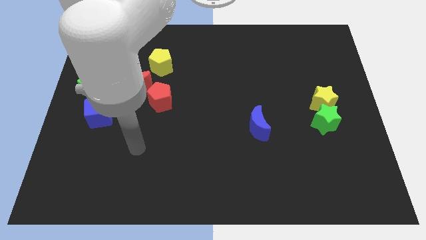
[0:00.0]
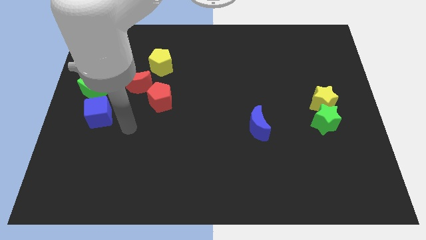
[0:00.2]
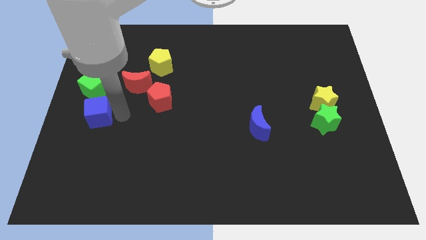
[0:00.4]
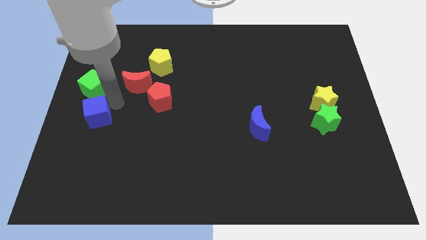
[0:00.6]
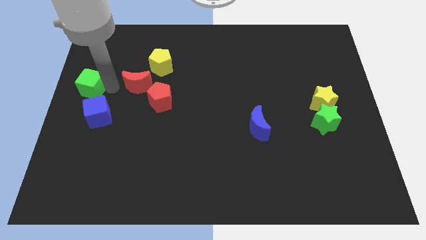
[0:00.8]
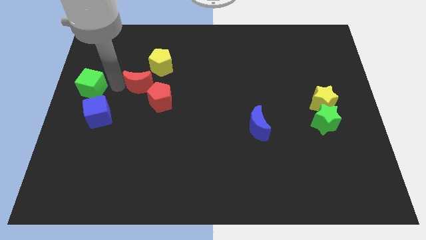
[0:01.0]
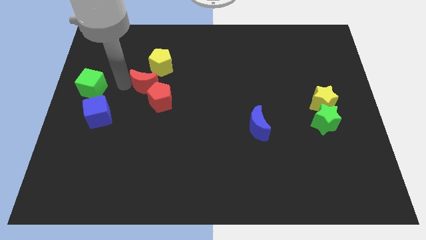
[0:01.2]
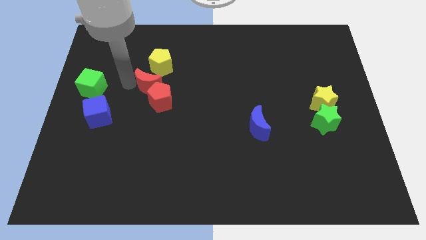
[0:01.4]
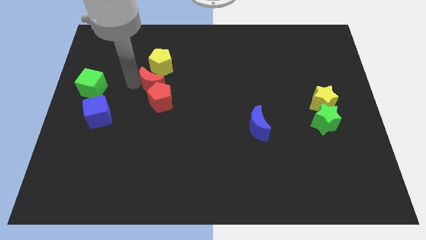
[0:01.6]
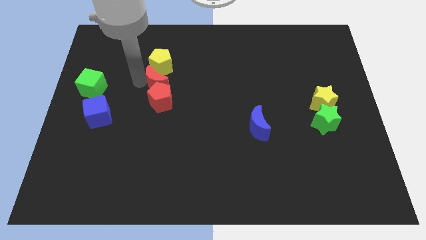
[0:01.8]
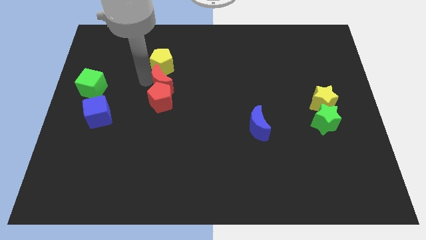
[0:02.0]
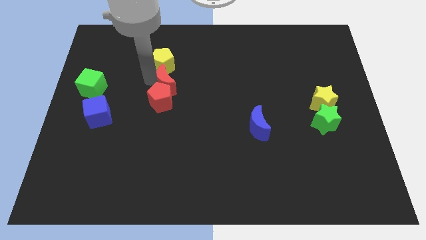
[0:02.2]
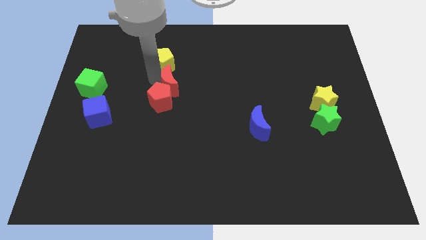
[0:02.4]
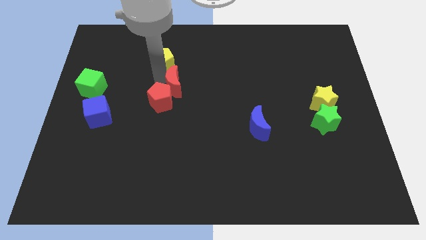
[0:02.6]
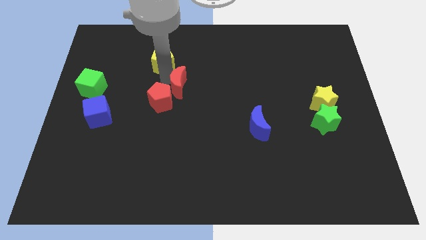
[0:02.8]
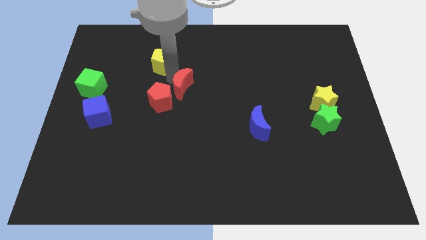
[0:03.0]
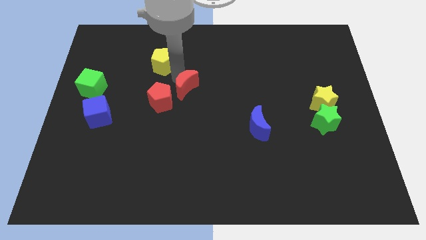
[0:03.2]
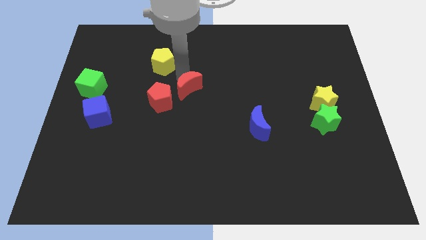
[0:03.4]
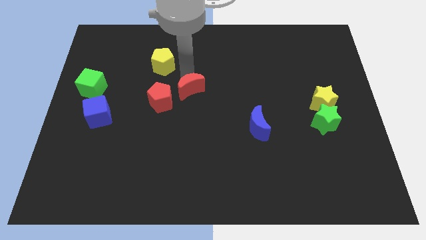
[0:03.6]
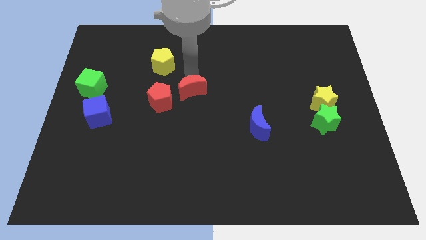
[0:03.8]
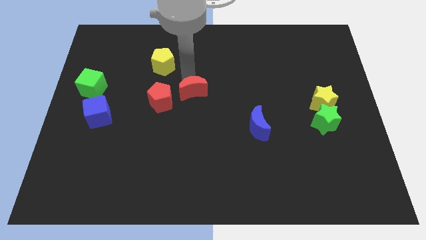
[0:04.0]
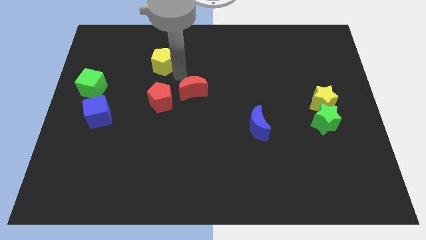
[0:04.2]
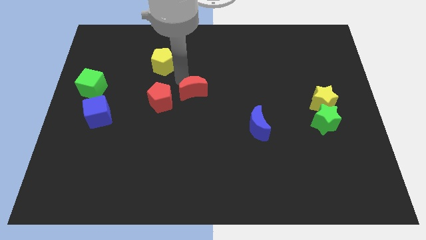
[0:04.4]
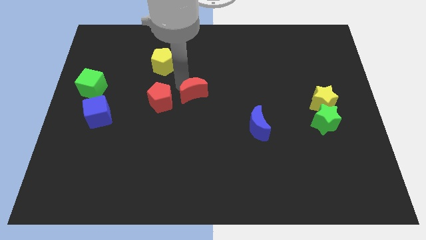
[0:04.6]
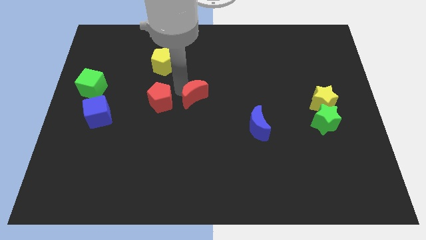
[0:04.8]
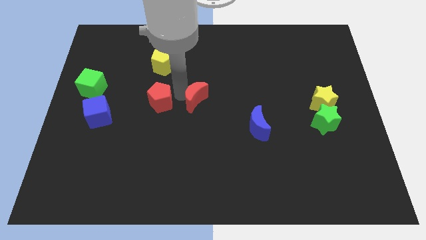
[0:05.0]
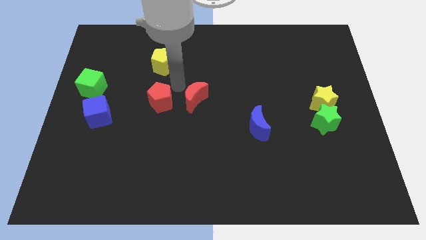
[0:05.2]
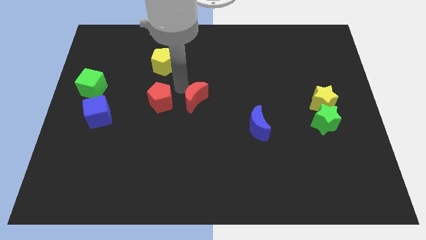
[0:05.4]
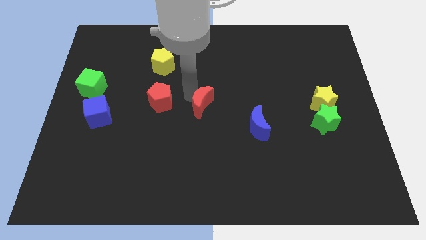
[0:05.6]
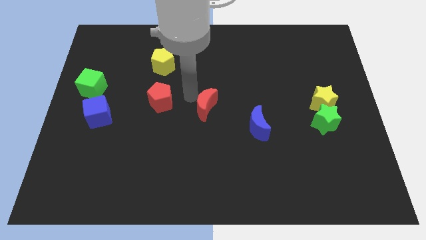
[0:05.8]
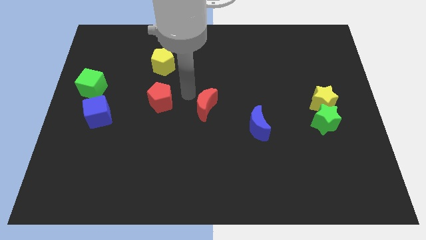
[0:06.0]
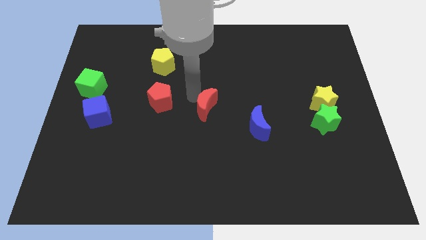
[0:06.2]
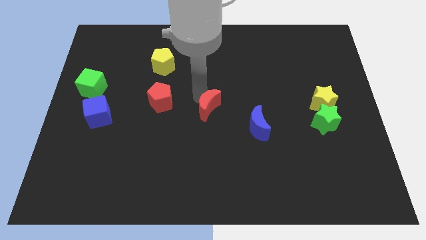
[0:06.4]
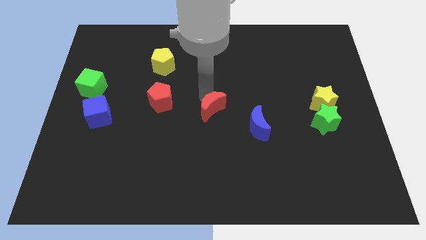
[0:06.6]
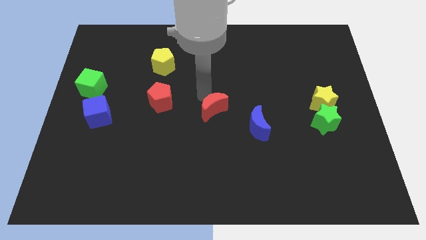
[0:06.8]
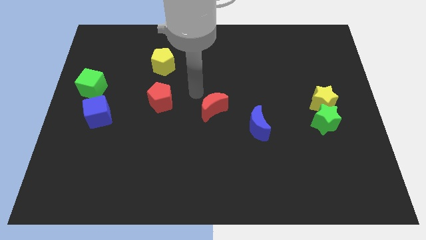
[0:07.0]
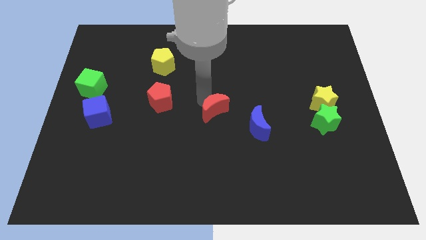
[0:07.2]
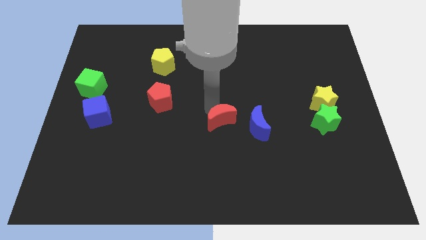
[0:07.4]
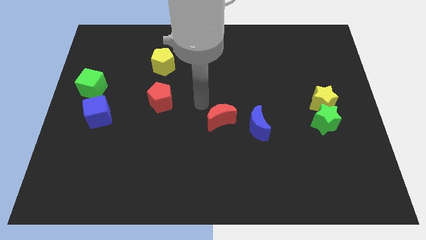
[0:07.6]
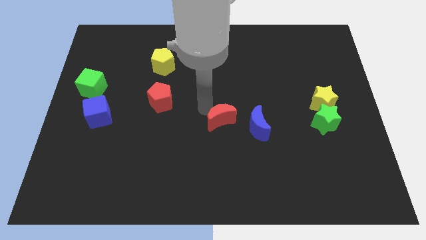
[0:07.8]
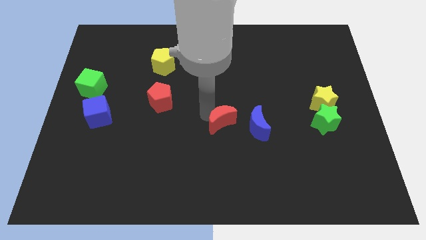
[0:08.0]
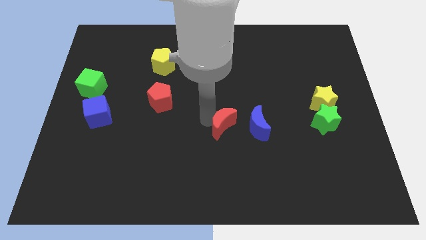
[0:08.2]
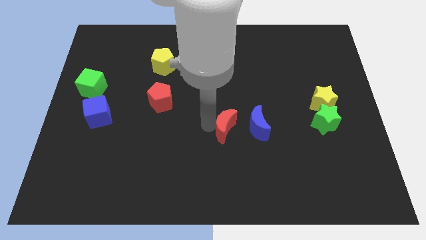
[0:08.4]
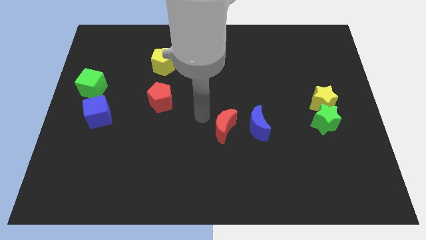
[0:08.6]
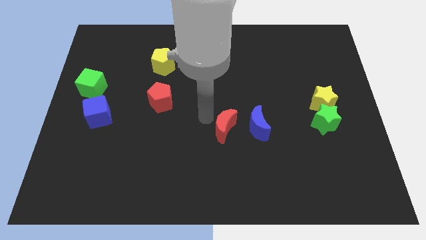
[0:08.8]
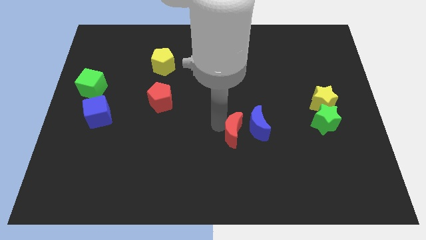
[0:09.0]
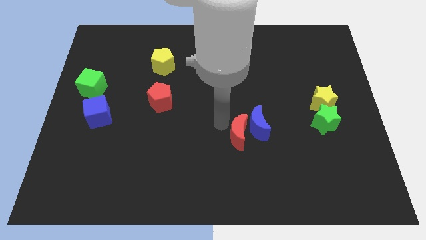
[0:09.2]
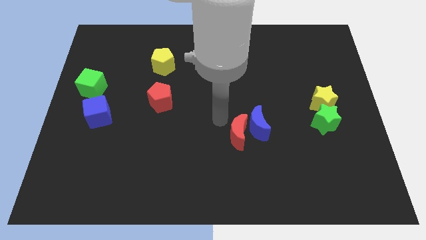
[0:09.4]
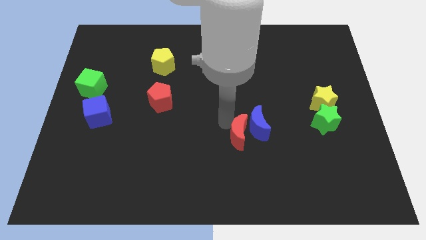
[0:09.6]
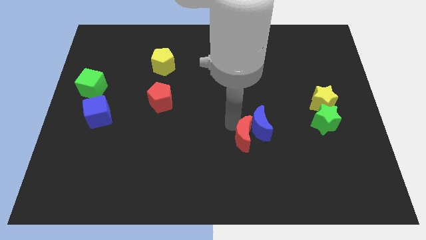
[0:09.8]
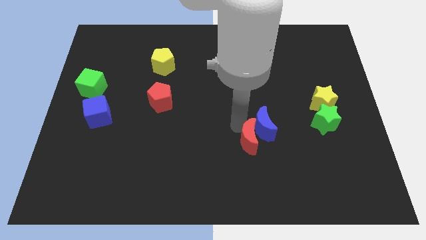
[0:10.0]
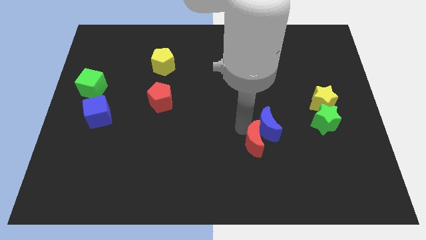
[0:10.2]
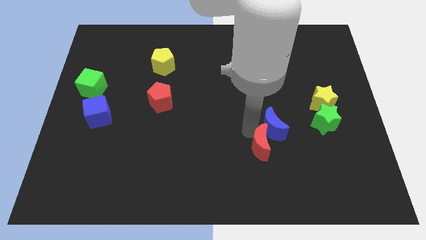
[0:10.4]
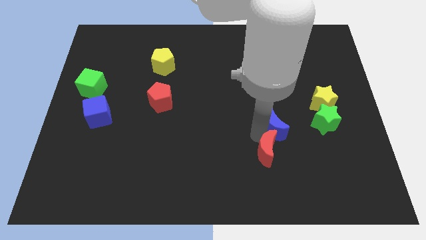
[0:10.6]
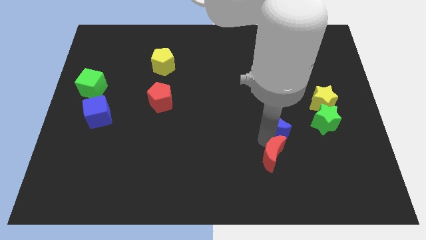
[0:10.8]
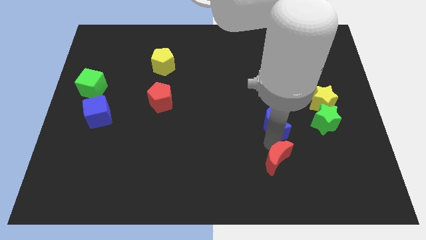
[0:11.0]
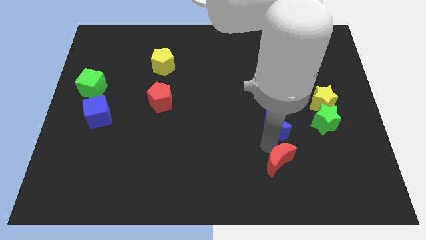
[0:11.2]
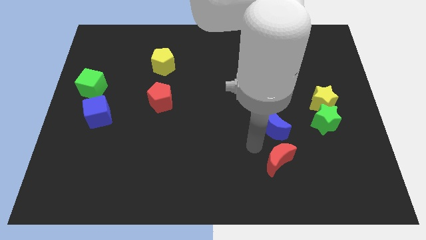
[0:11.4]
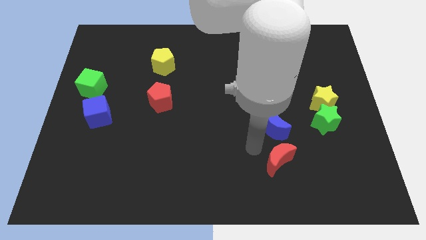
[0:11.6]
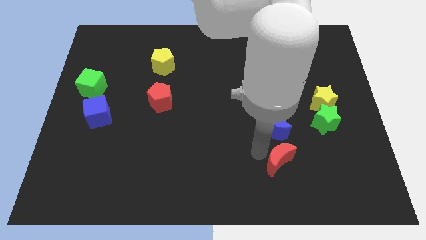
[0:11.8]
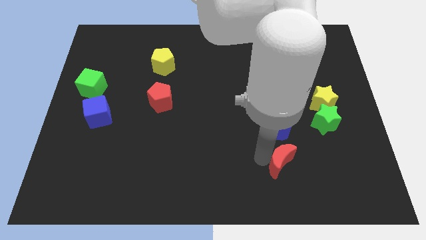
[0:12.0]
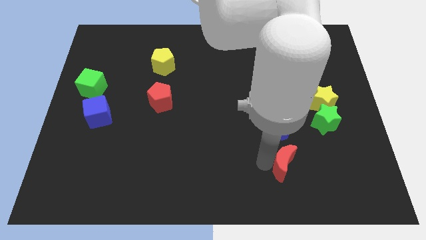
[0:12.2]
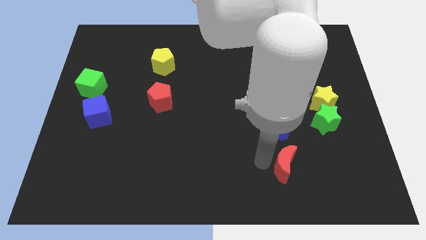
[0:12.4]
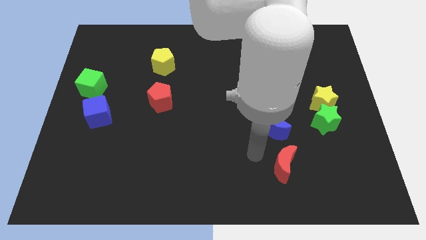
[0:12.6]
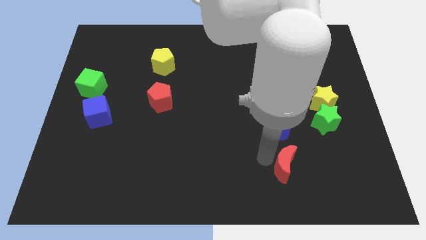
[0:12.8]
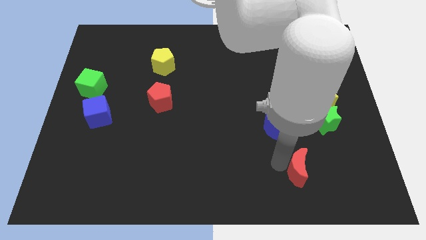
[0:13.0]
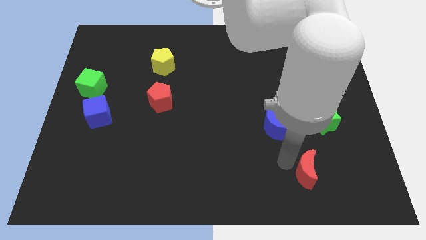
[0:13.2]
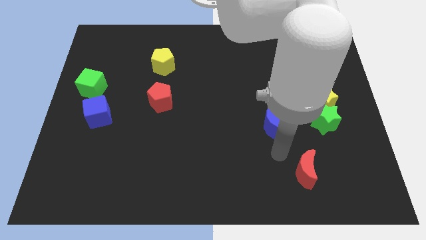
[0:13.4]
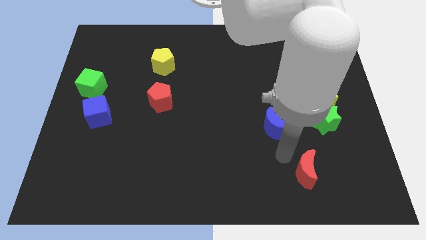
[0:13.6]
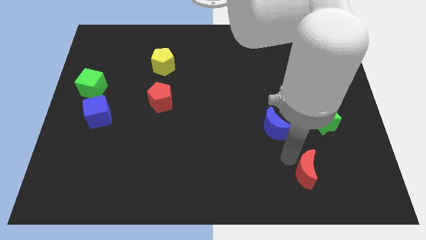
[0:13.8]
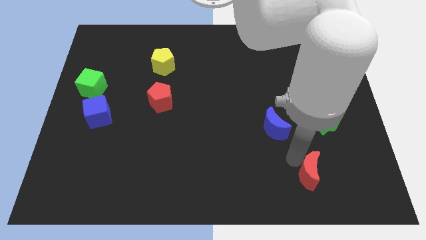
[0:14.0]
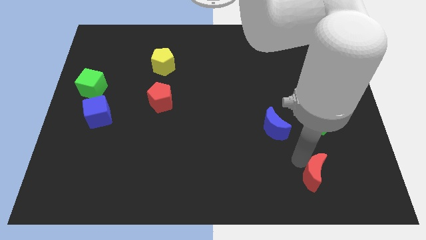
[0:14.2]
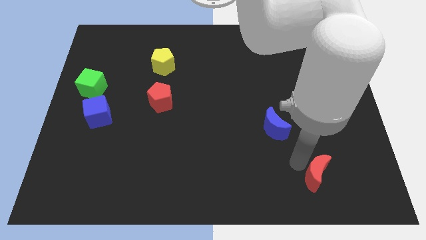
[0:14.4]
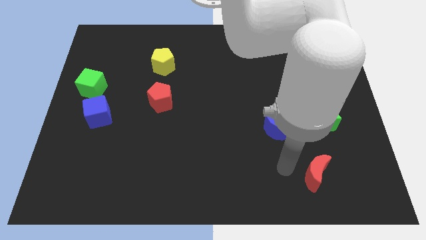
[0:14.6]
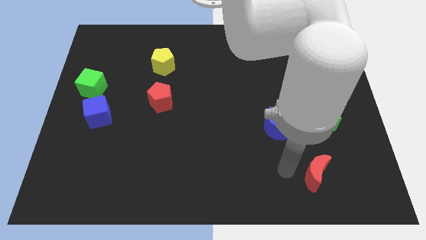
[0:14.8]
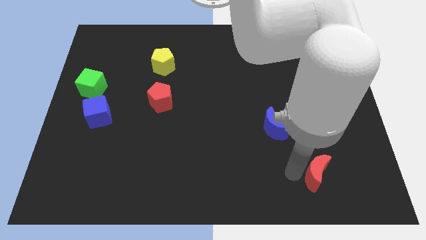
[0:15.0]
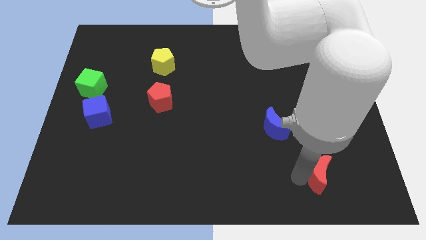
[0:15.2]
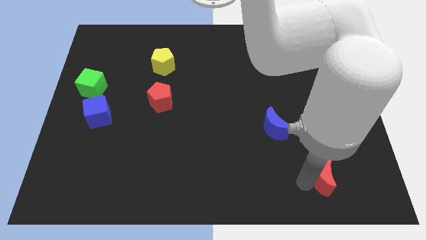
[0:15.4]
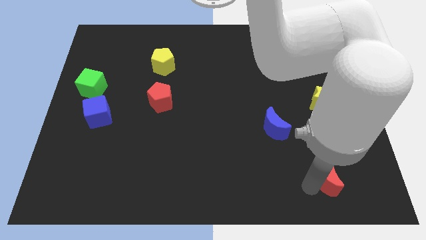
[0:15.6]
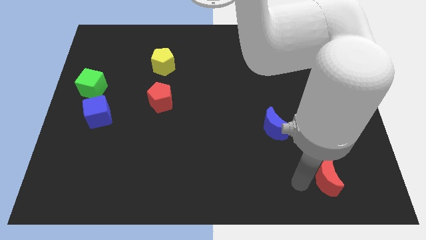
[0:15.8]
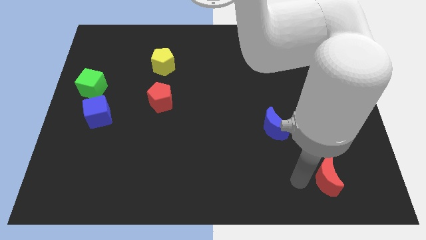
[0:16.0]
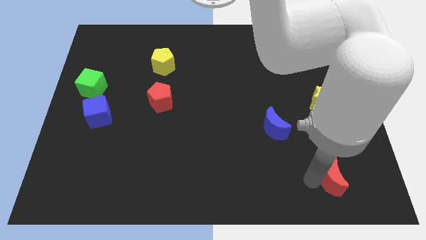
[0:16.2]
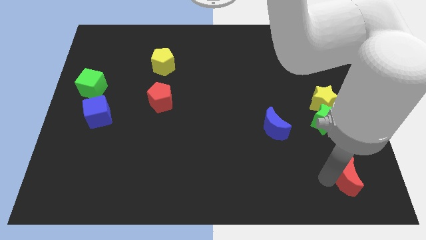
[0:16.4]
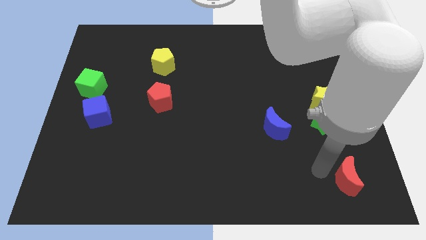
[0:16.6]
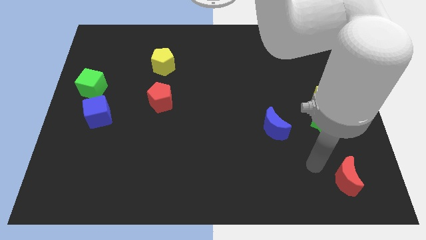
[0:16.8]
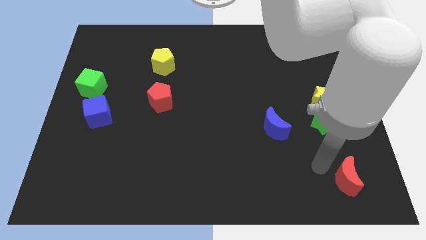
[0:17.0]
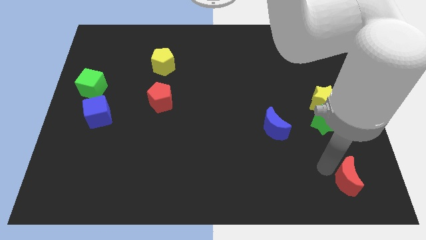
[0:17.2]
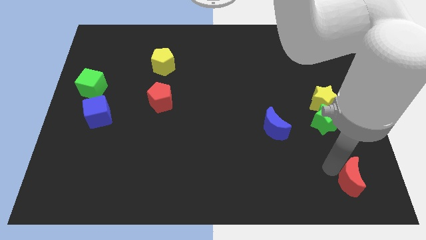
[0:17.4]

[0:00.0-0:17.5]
put the red moon to the bottom right corner
